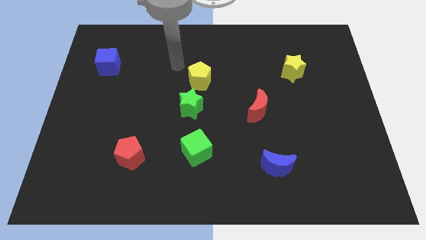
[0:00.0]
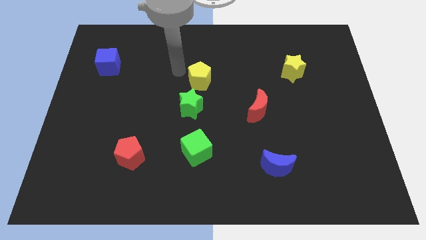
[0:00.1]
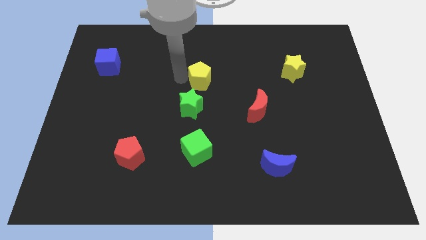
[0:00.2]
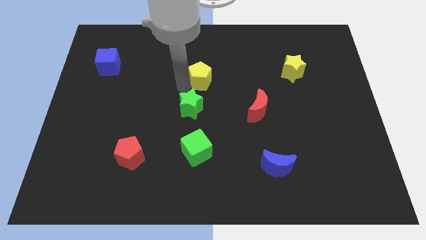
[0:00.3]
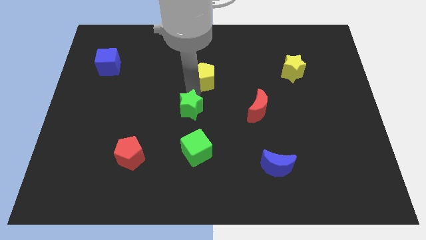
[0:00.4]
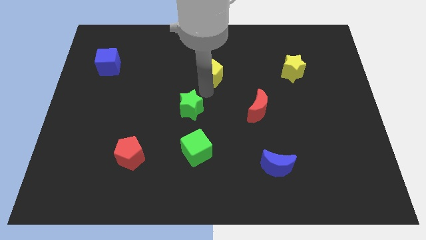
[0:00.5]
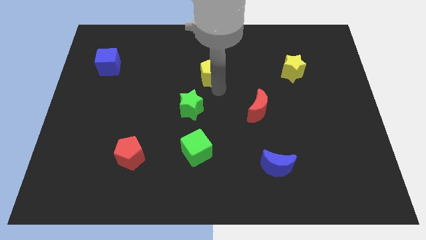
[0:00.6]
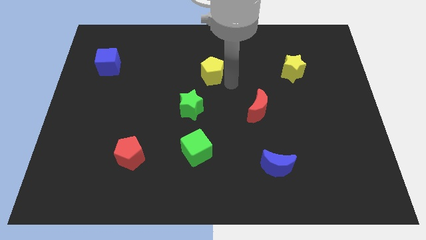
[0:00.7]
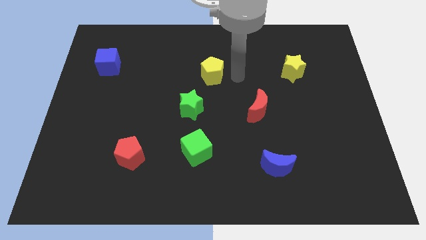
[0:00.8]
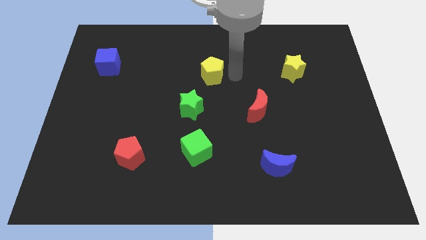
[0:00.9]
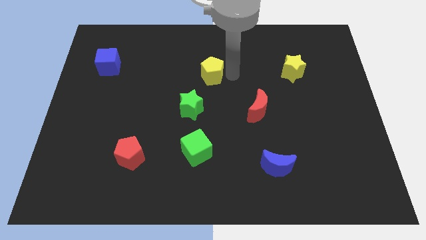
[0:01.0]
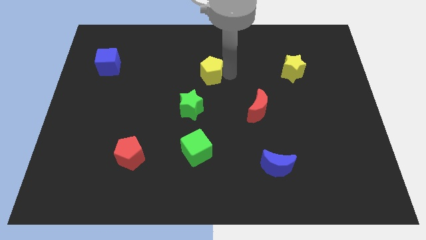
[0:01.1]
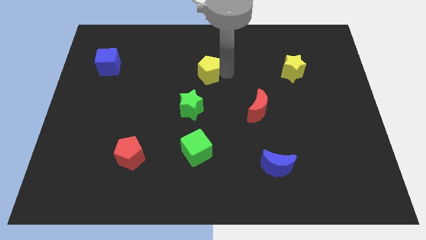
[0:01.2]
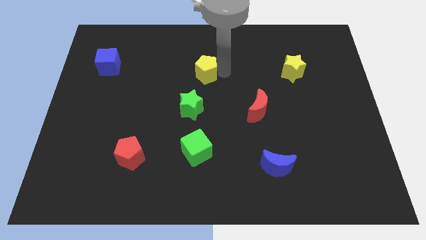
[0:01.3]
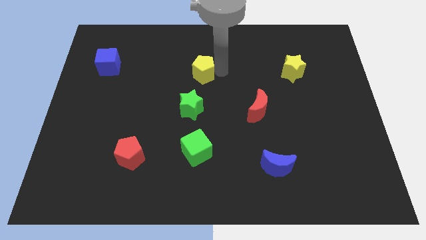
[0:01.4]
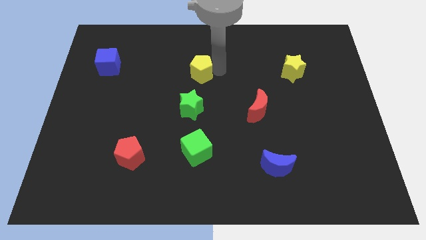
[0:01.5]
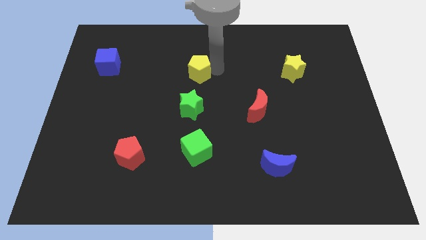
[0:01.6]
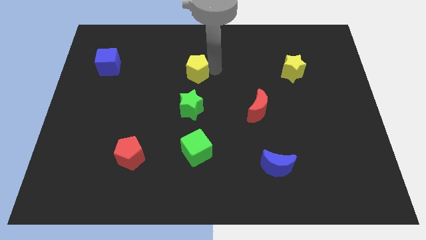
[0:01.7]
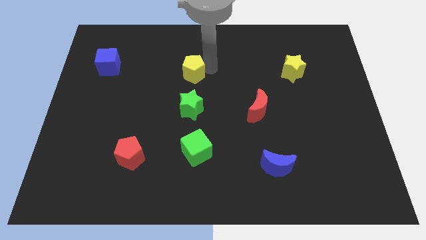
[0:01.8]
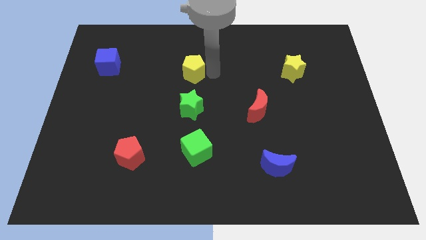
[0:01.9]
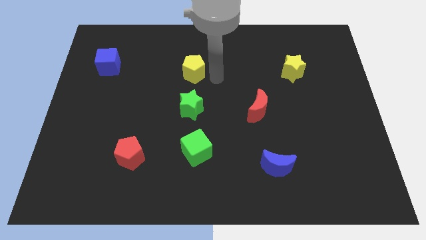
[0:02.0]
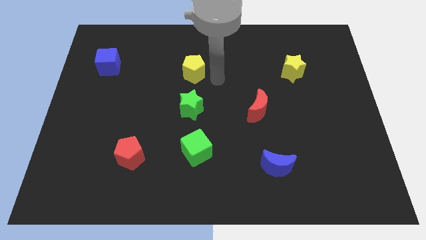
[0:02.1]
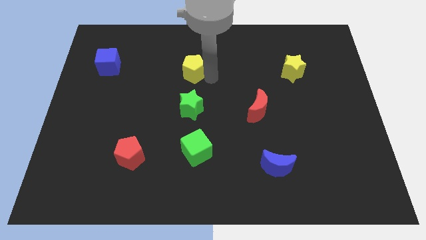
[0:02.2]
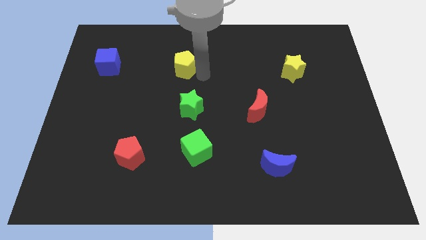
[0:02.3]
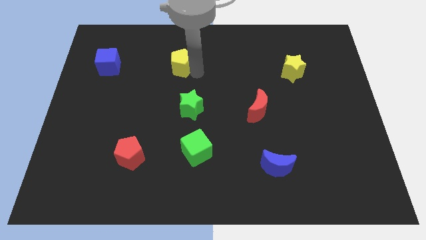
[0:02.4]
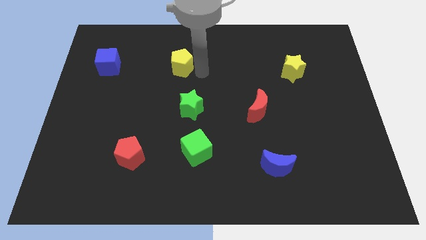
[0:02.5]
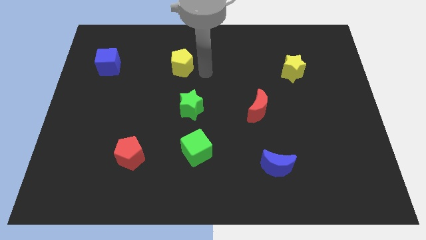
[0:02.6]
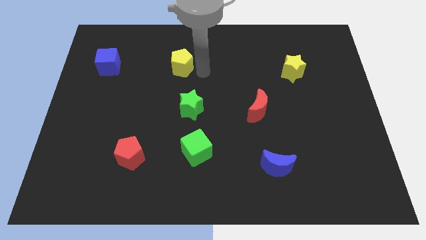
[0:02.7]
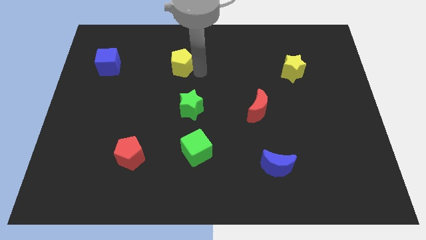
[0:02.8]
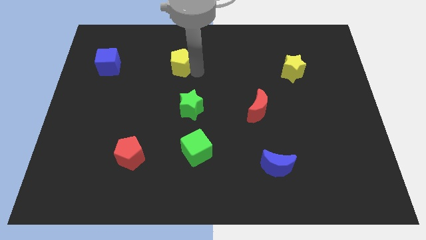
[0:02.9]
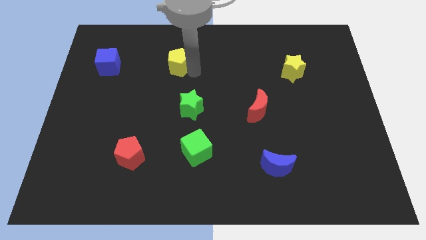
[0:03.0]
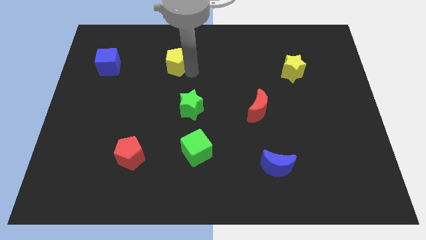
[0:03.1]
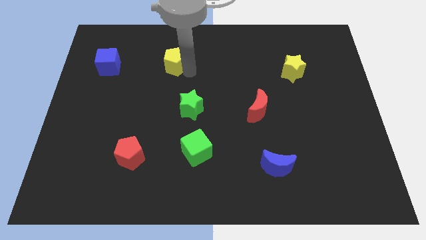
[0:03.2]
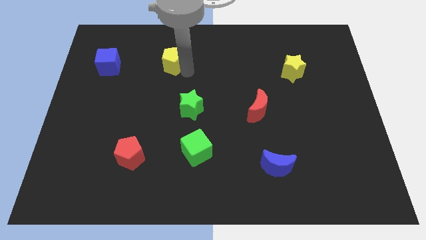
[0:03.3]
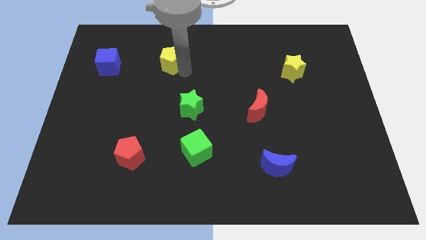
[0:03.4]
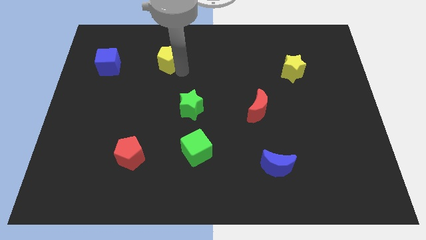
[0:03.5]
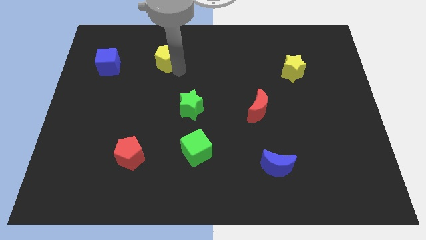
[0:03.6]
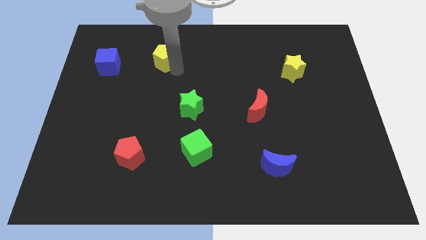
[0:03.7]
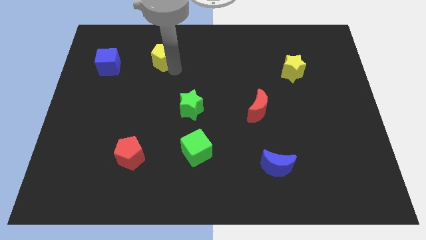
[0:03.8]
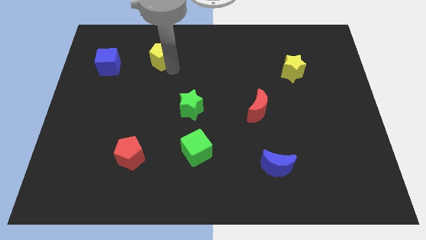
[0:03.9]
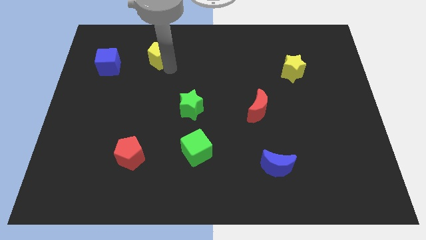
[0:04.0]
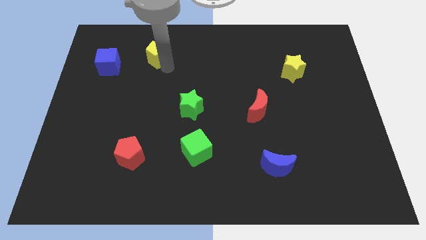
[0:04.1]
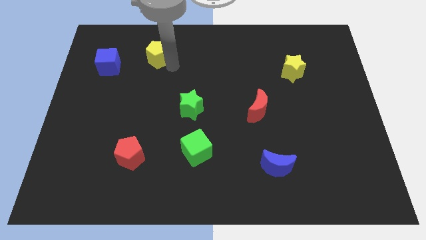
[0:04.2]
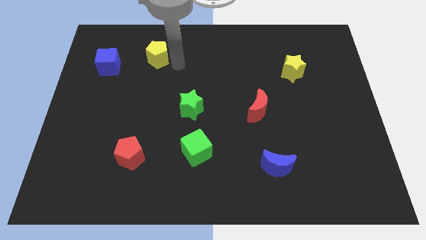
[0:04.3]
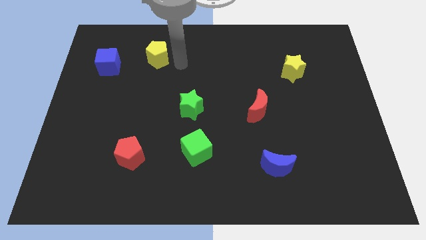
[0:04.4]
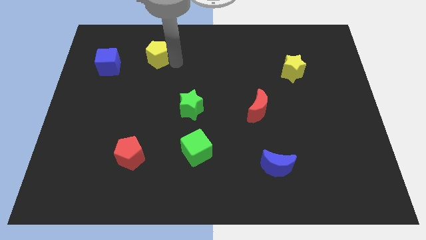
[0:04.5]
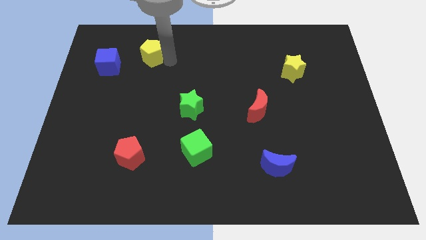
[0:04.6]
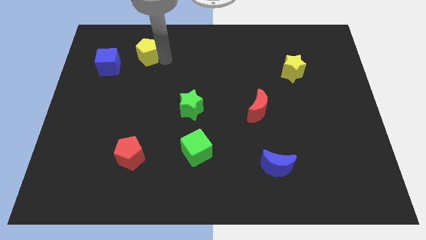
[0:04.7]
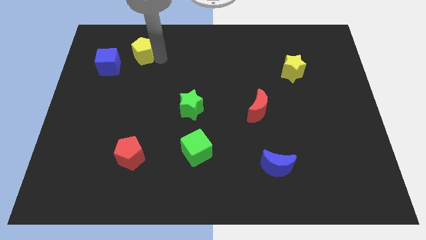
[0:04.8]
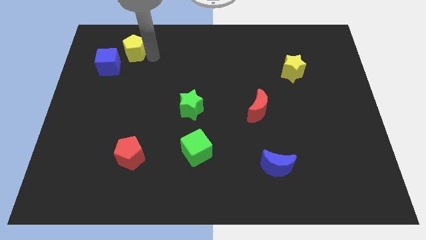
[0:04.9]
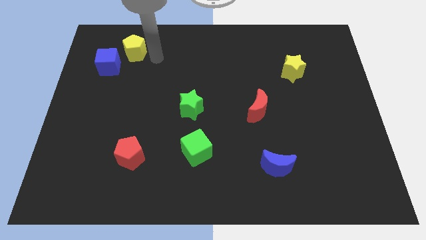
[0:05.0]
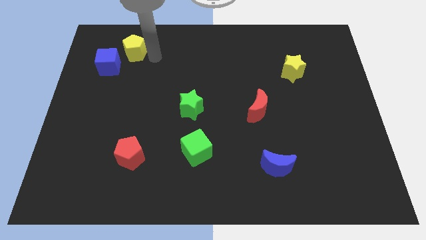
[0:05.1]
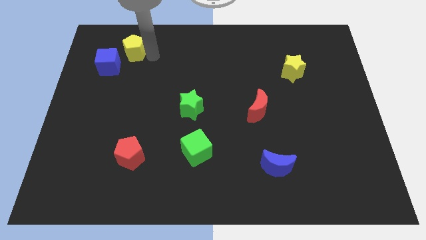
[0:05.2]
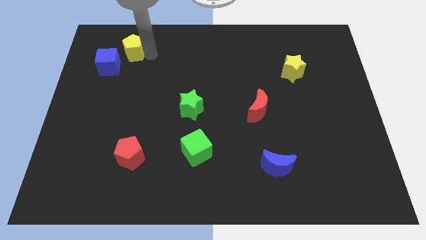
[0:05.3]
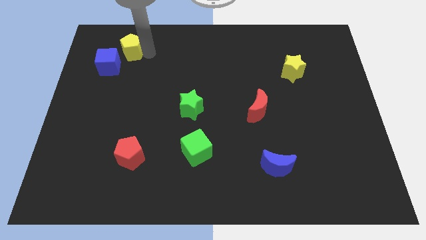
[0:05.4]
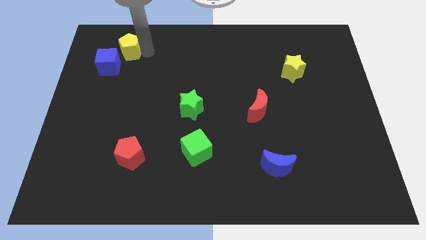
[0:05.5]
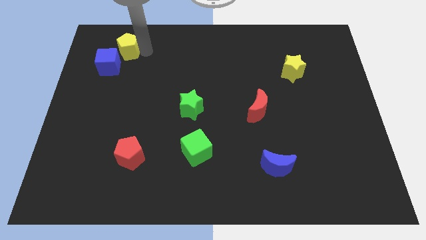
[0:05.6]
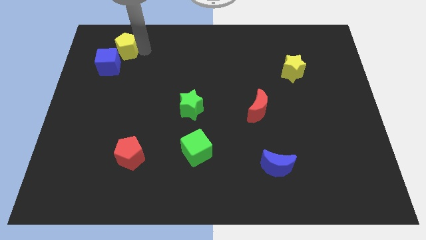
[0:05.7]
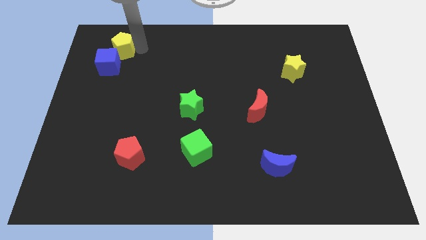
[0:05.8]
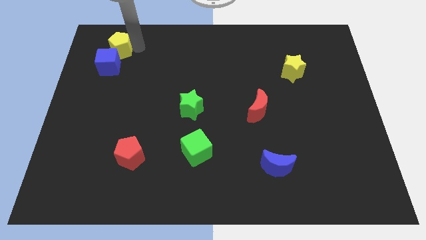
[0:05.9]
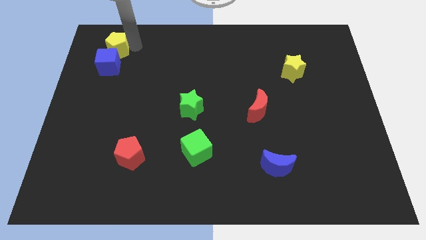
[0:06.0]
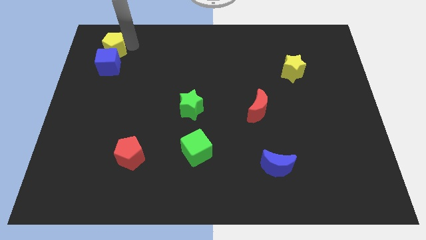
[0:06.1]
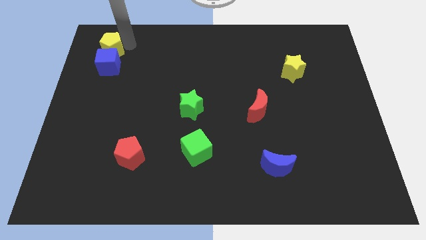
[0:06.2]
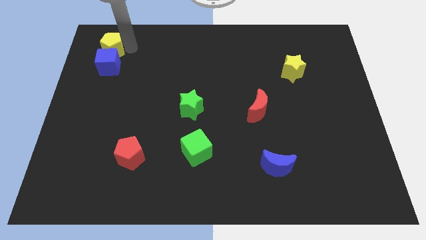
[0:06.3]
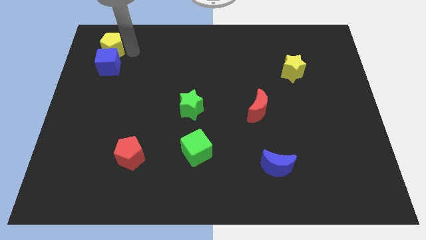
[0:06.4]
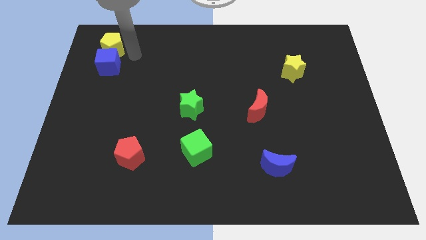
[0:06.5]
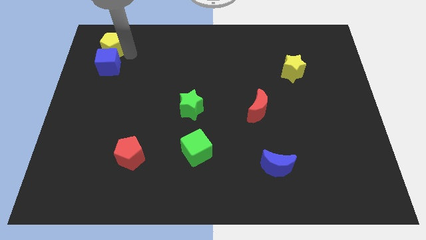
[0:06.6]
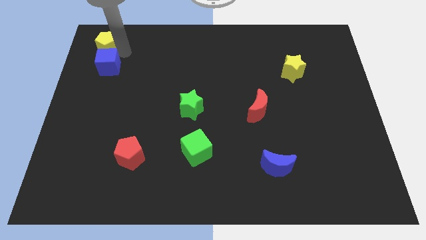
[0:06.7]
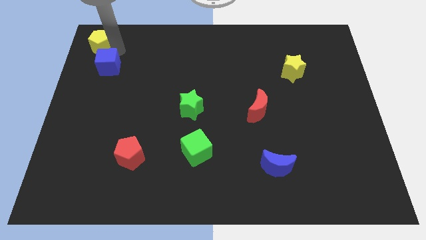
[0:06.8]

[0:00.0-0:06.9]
push the yellow pentagon to the top left corner
